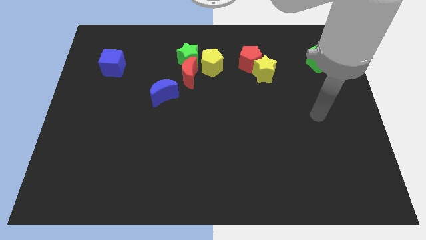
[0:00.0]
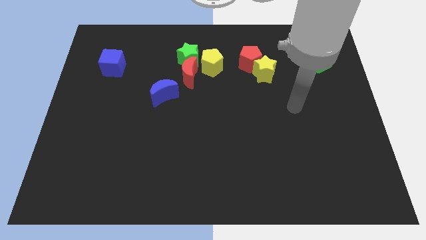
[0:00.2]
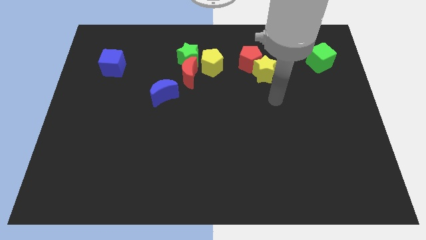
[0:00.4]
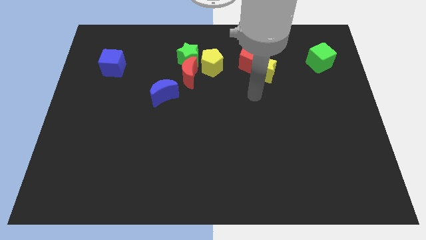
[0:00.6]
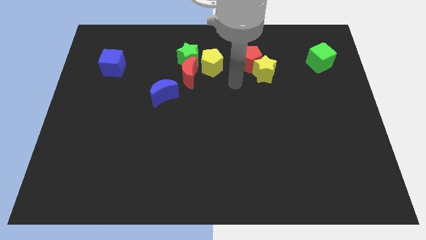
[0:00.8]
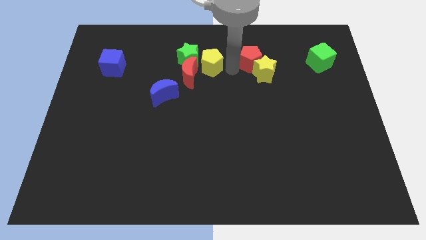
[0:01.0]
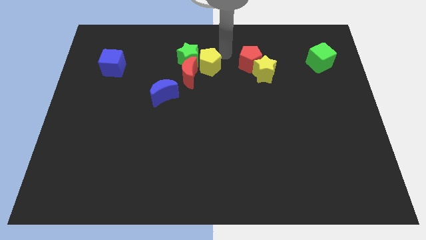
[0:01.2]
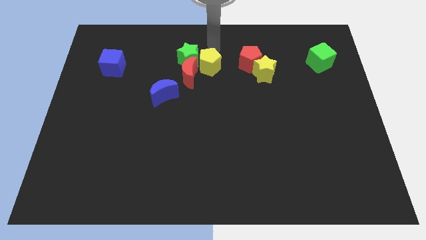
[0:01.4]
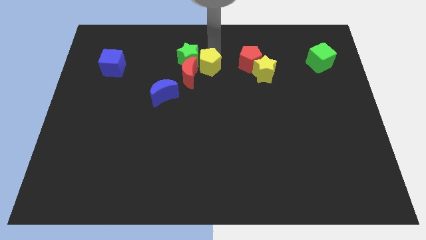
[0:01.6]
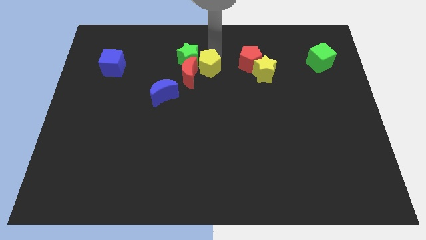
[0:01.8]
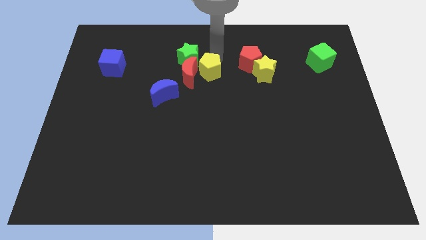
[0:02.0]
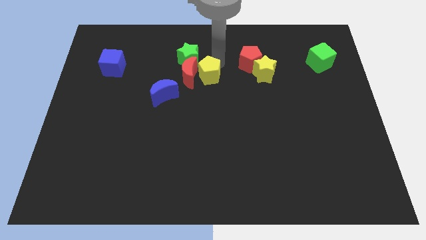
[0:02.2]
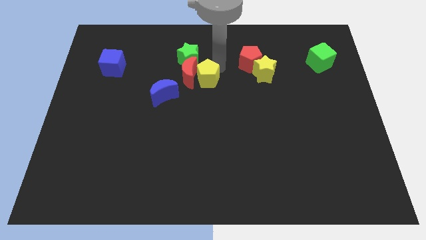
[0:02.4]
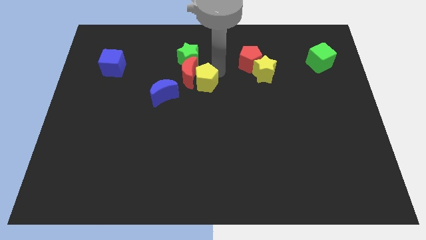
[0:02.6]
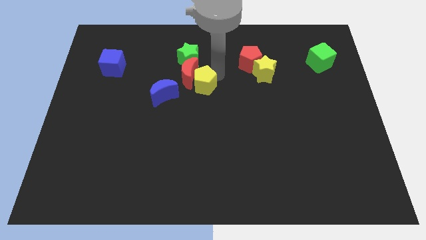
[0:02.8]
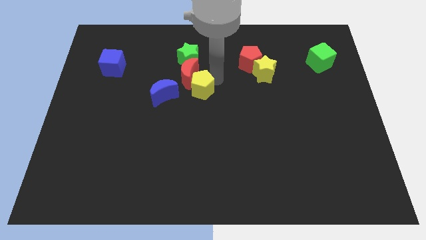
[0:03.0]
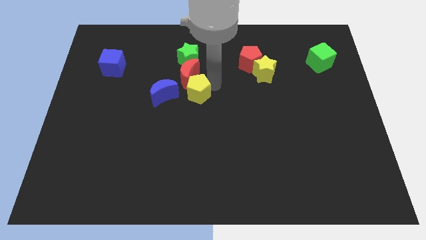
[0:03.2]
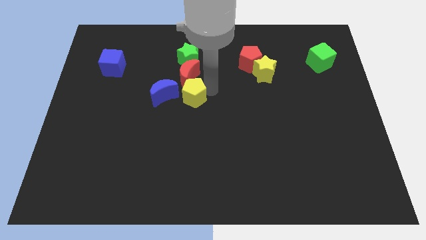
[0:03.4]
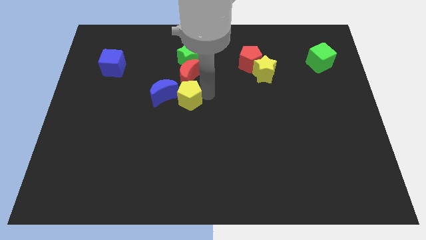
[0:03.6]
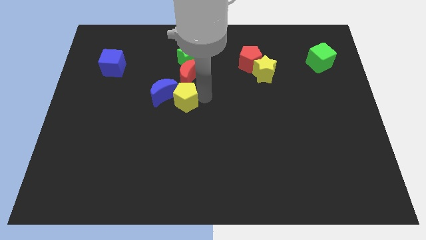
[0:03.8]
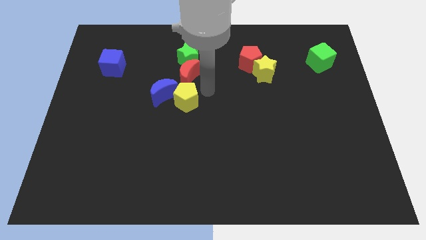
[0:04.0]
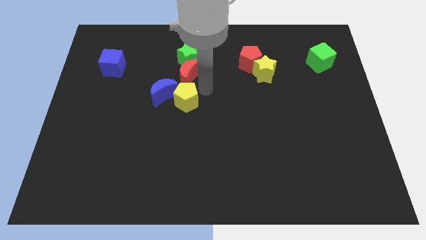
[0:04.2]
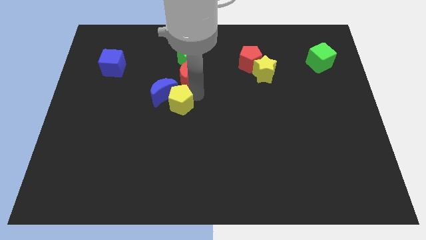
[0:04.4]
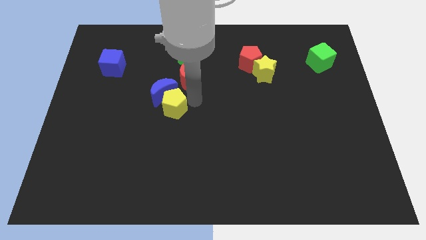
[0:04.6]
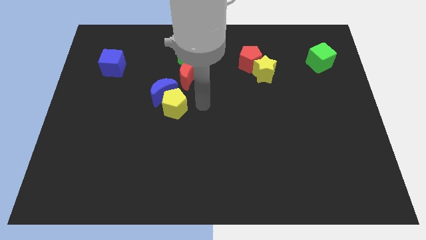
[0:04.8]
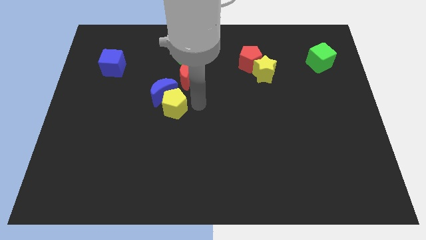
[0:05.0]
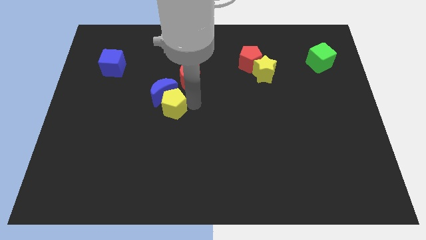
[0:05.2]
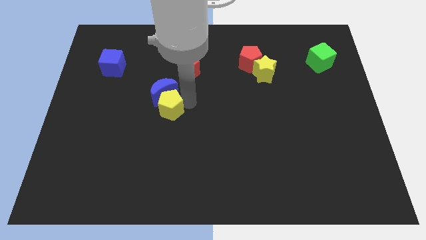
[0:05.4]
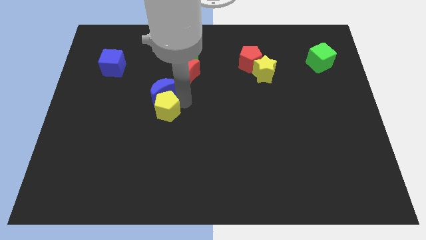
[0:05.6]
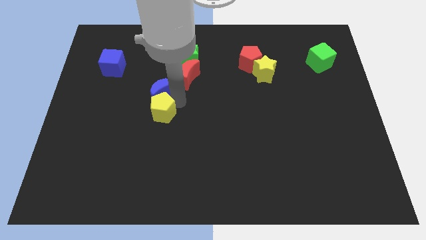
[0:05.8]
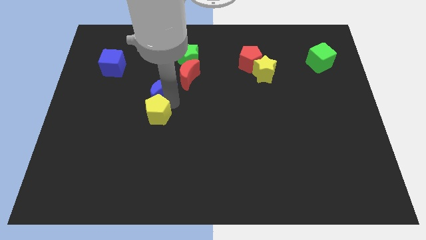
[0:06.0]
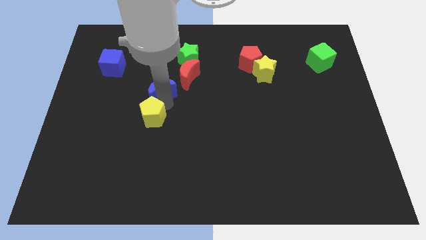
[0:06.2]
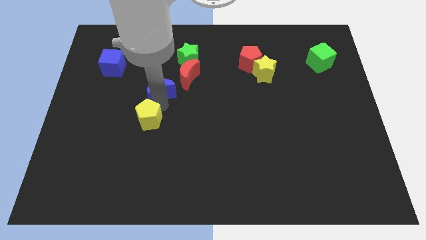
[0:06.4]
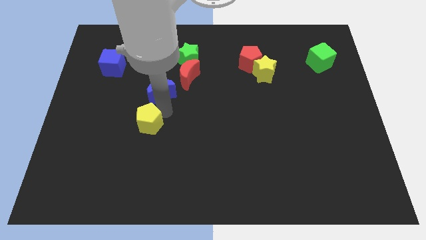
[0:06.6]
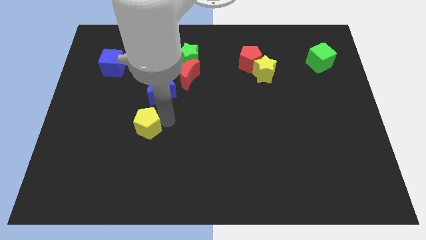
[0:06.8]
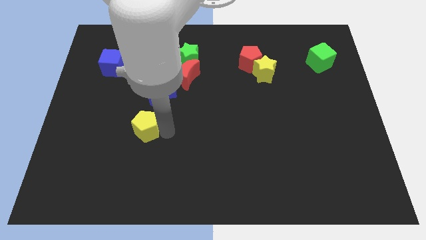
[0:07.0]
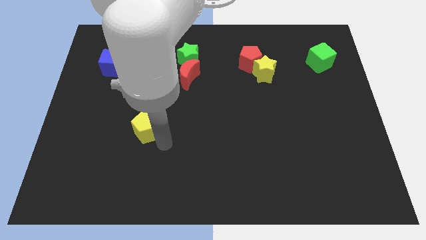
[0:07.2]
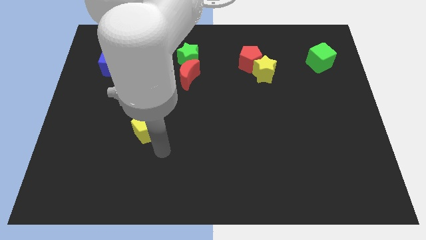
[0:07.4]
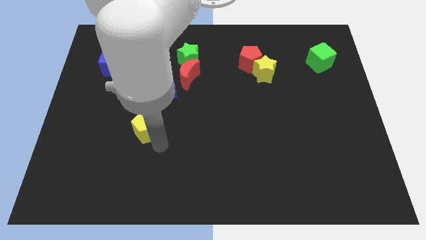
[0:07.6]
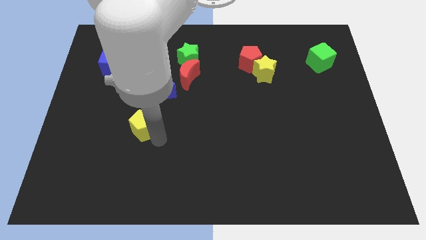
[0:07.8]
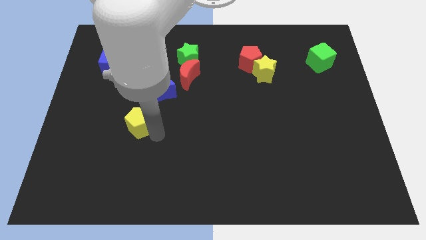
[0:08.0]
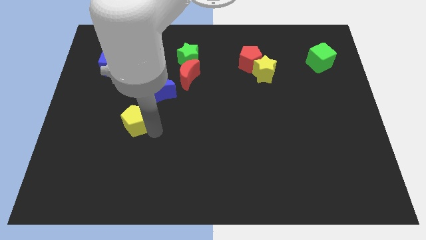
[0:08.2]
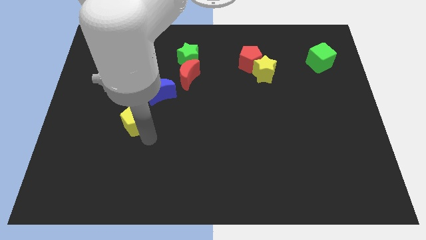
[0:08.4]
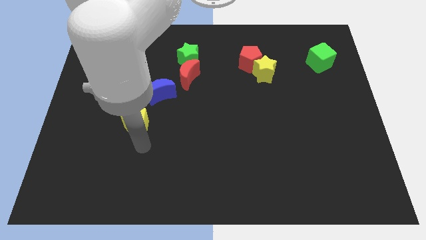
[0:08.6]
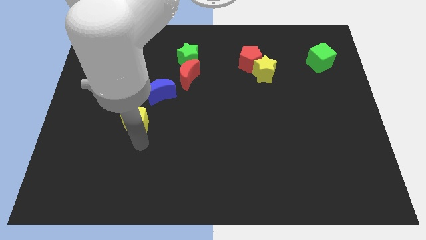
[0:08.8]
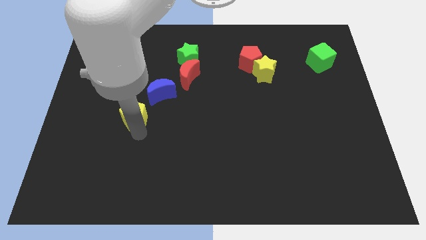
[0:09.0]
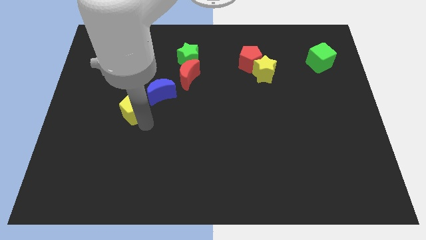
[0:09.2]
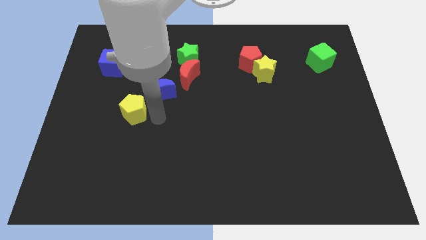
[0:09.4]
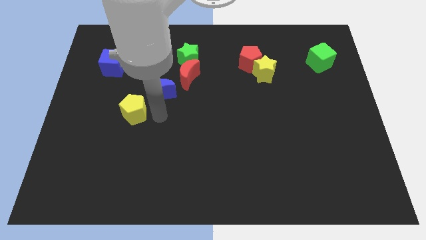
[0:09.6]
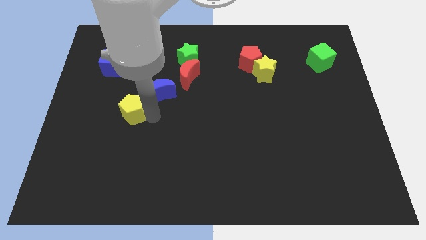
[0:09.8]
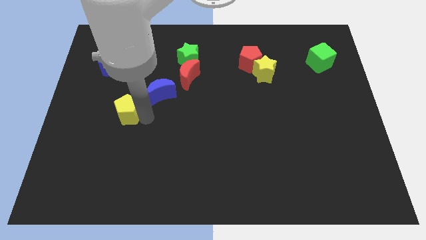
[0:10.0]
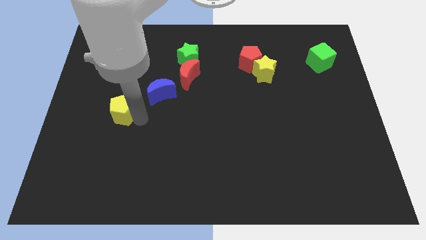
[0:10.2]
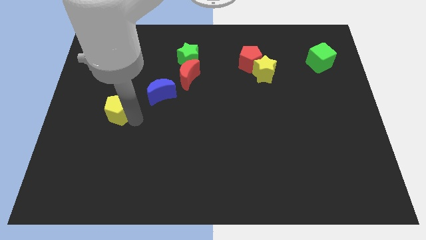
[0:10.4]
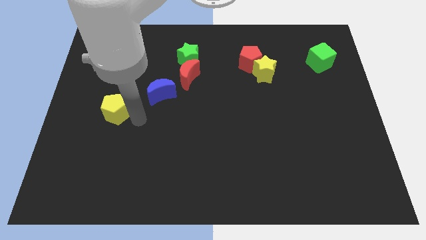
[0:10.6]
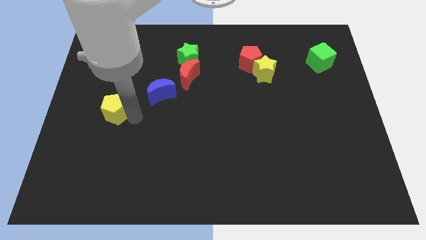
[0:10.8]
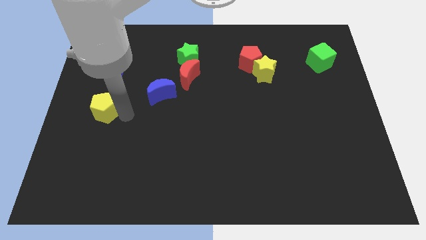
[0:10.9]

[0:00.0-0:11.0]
slide the yellow pentagon to the center left

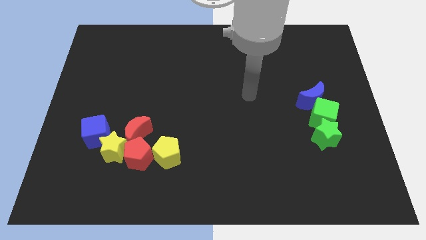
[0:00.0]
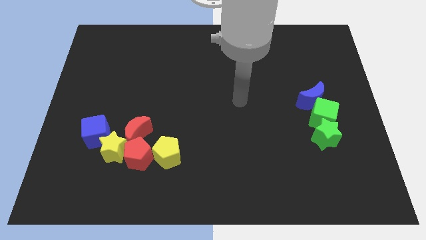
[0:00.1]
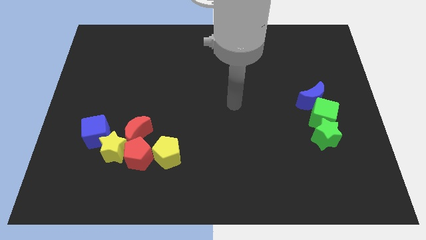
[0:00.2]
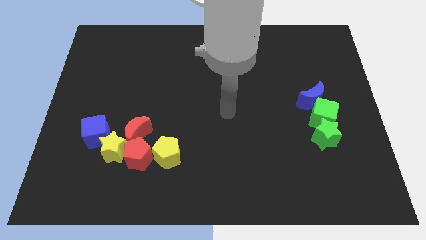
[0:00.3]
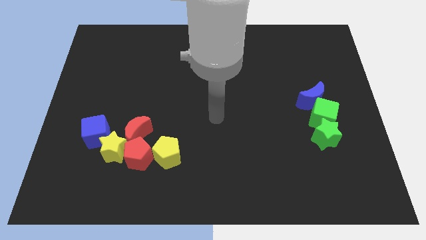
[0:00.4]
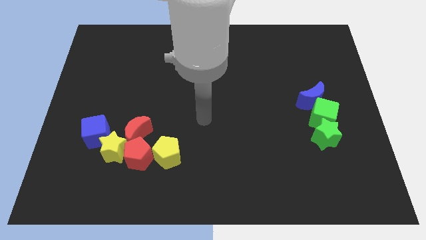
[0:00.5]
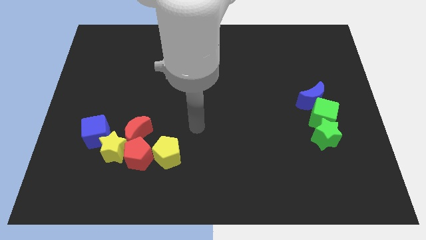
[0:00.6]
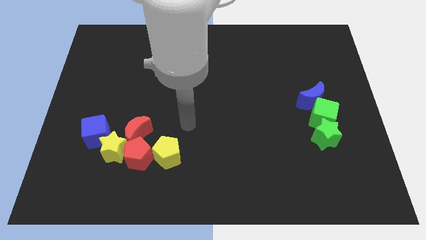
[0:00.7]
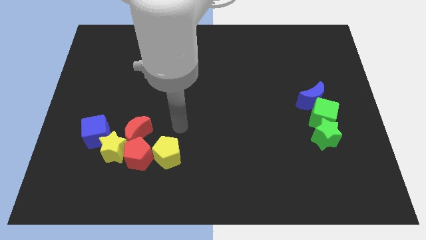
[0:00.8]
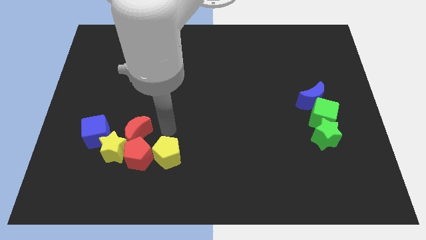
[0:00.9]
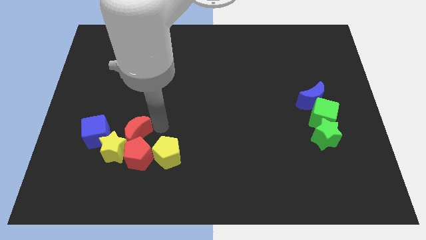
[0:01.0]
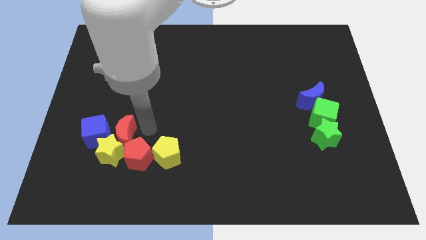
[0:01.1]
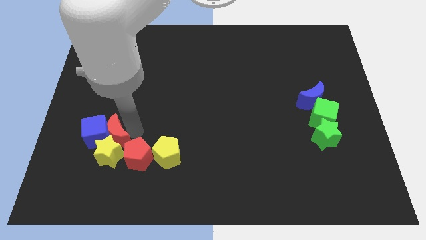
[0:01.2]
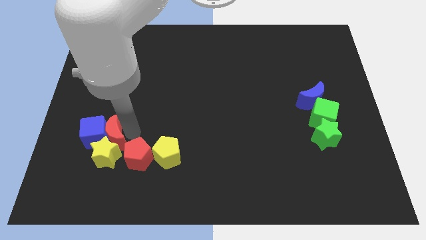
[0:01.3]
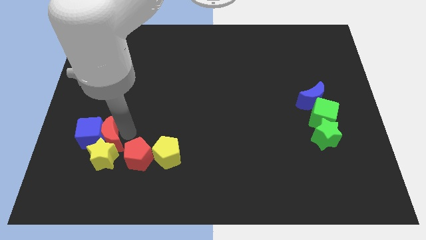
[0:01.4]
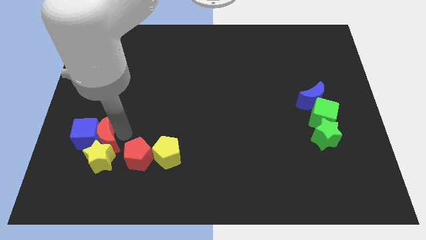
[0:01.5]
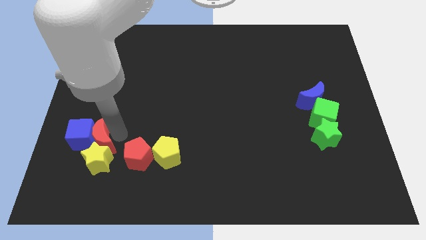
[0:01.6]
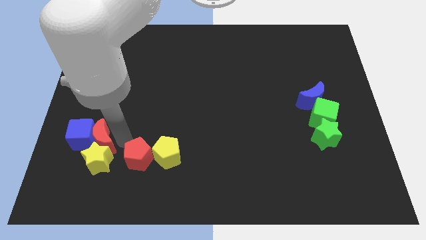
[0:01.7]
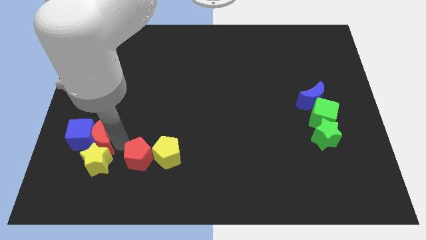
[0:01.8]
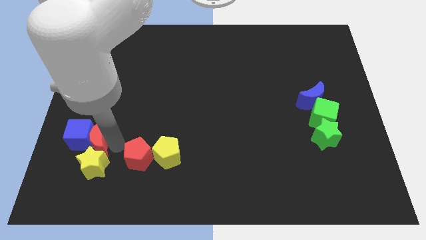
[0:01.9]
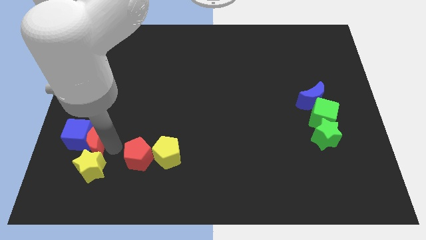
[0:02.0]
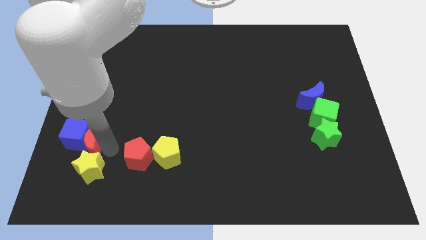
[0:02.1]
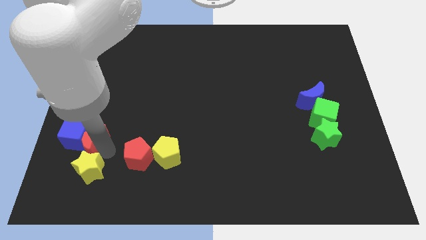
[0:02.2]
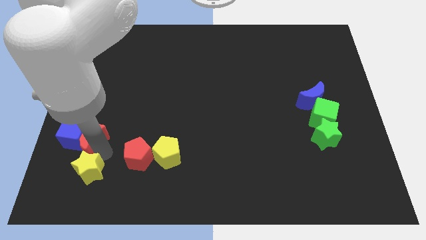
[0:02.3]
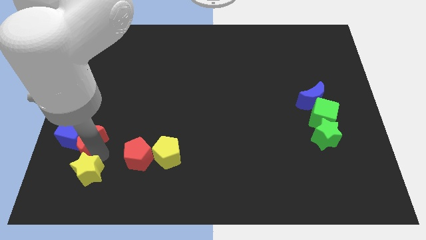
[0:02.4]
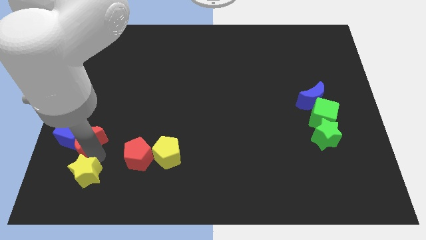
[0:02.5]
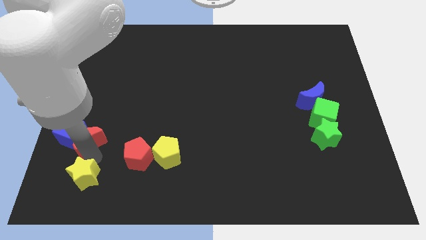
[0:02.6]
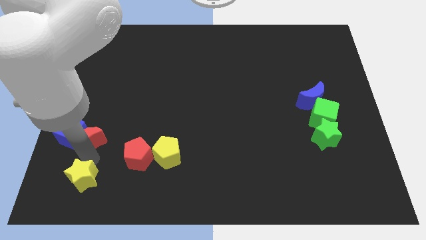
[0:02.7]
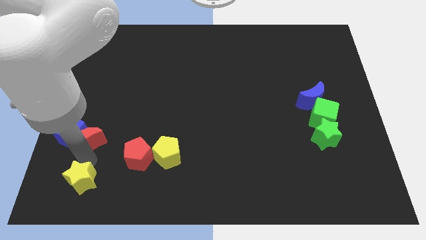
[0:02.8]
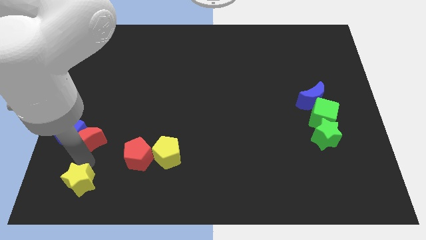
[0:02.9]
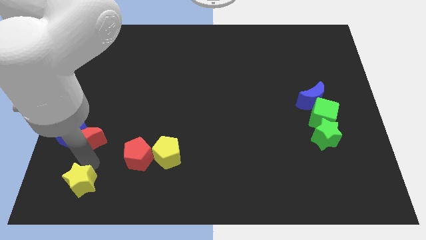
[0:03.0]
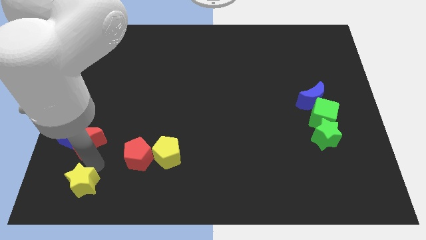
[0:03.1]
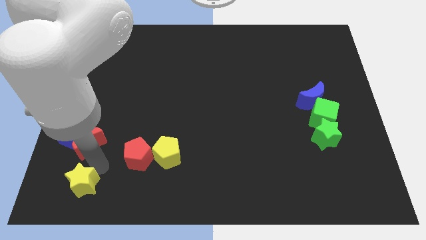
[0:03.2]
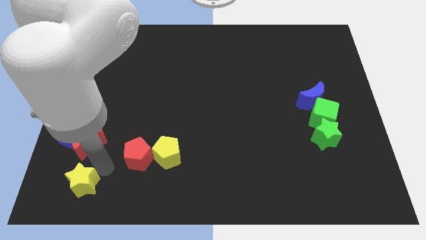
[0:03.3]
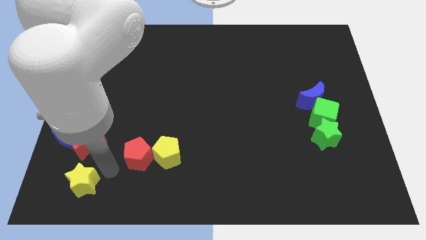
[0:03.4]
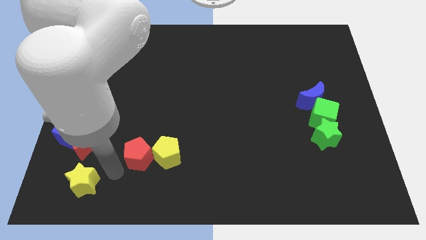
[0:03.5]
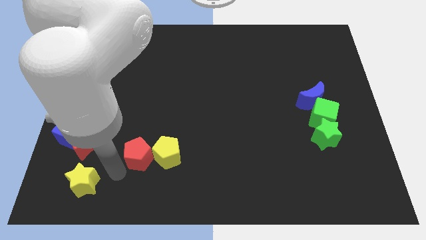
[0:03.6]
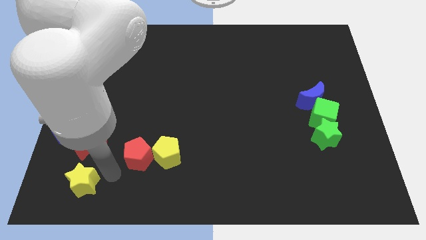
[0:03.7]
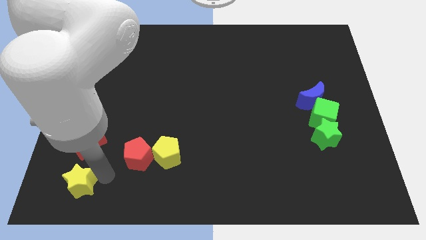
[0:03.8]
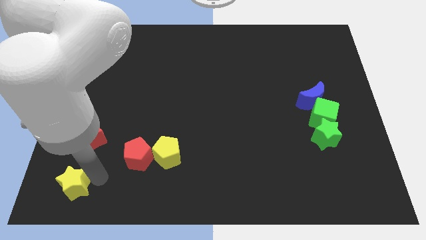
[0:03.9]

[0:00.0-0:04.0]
push the yellow star to the bottom left corner
